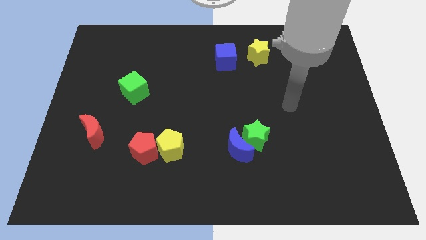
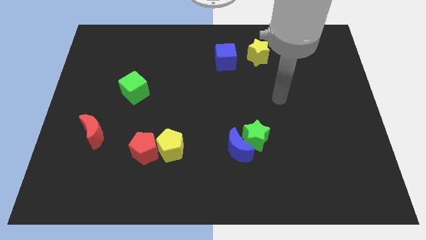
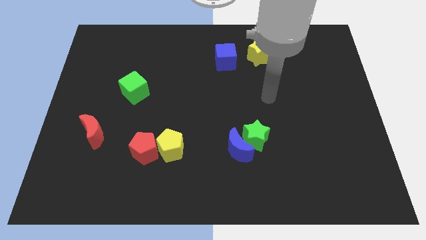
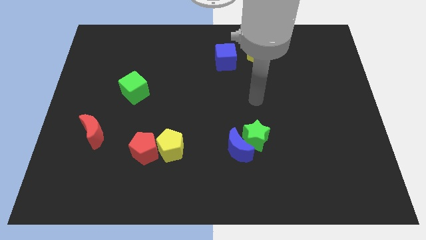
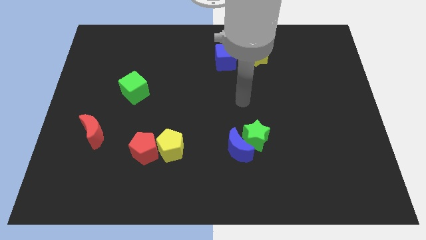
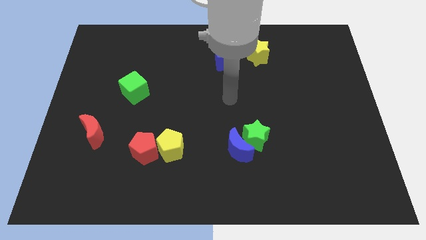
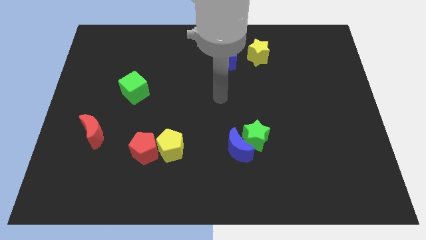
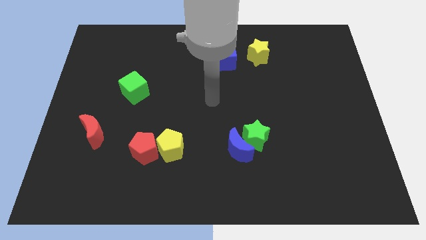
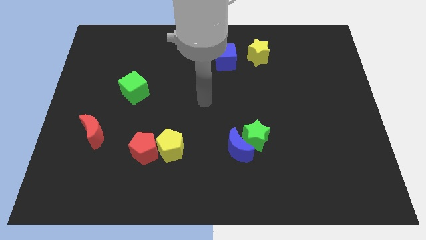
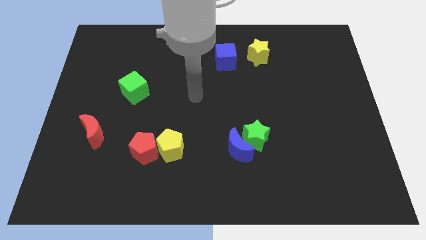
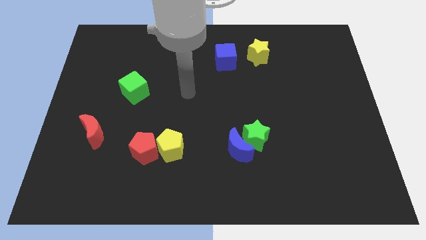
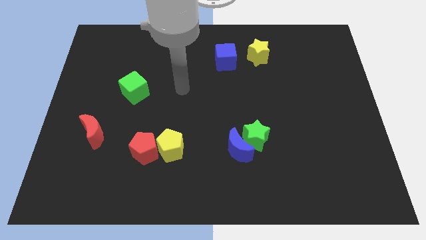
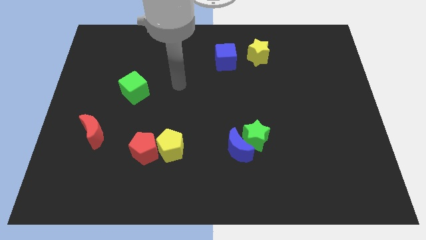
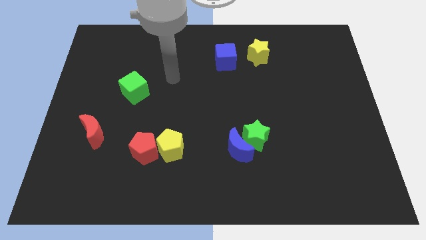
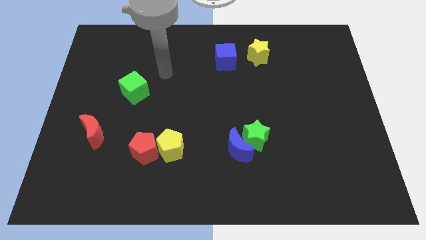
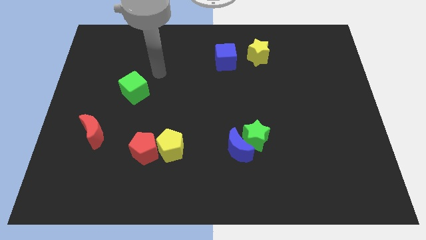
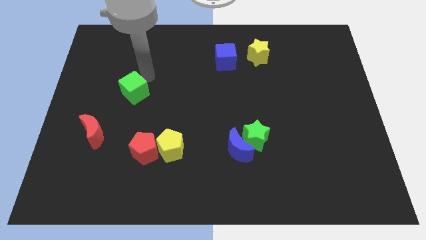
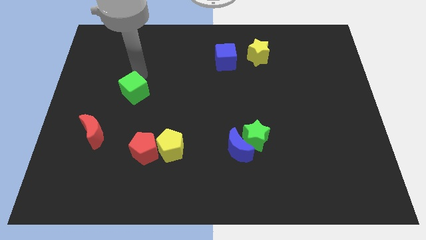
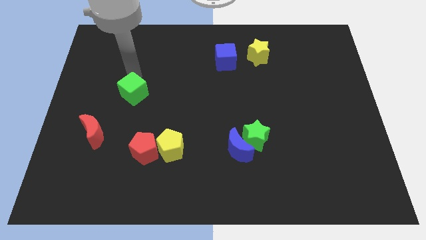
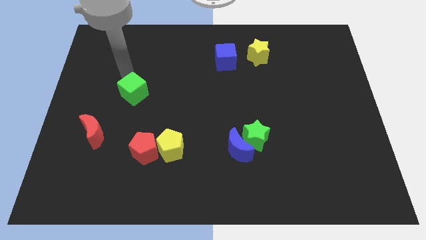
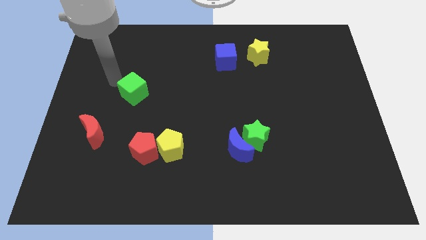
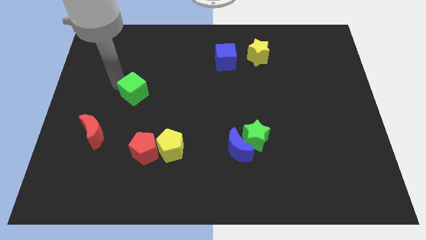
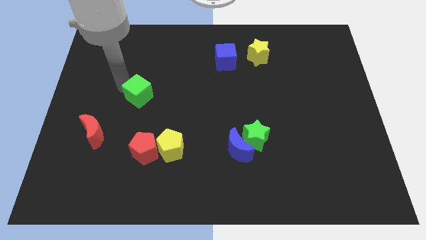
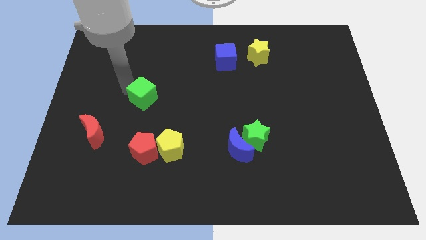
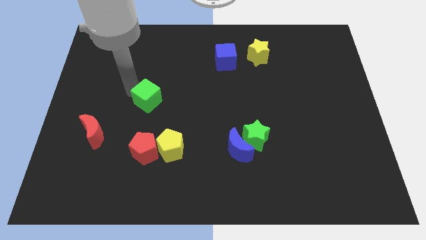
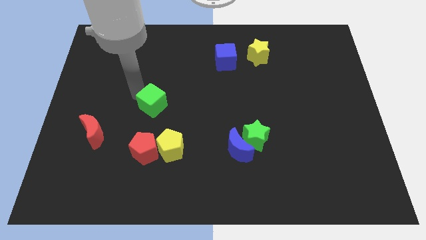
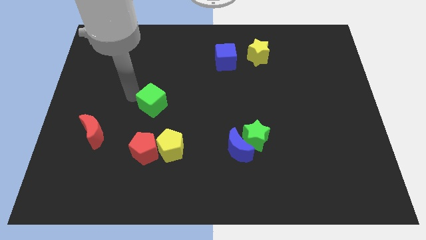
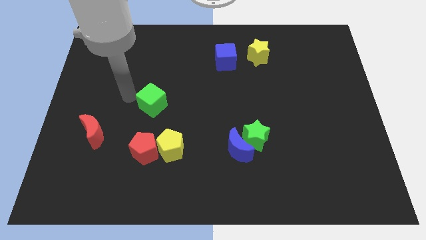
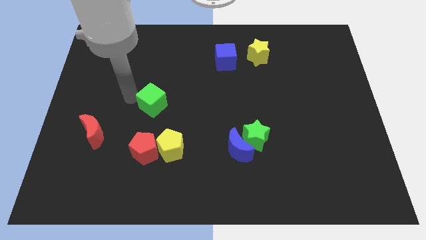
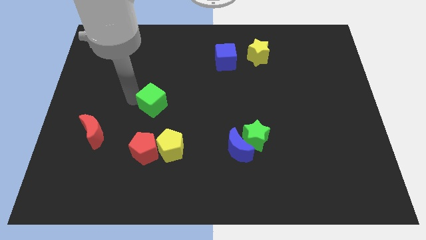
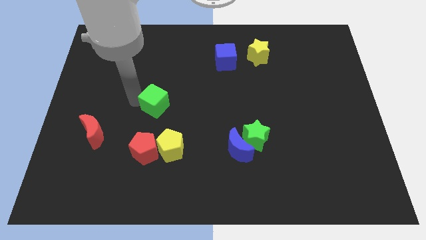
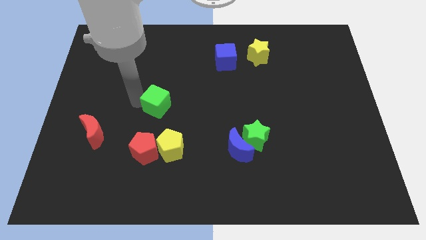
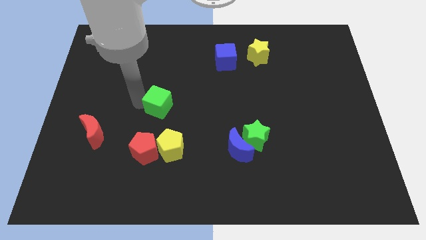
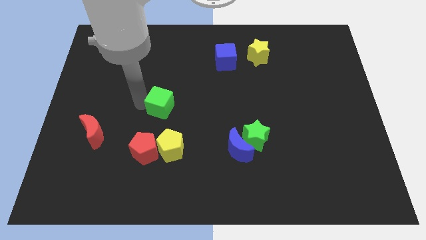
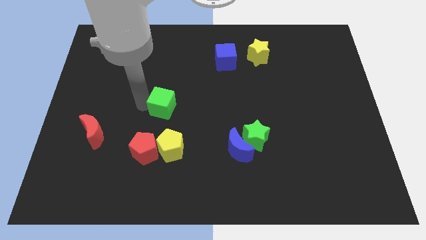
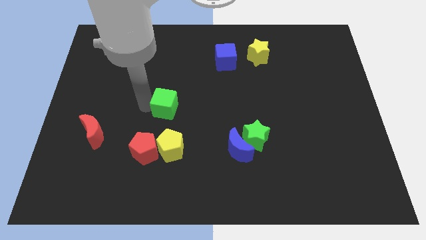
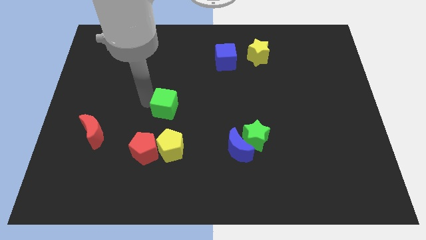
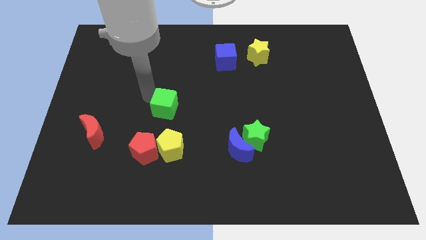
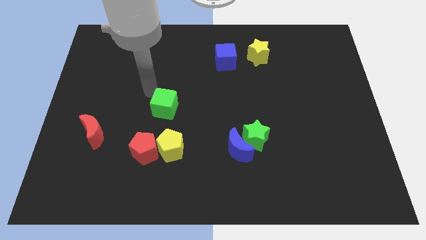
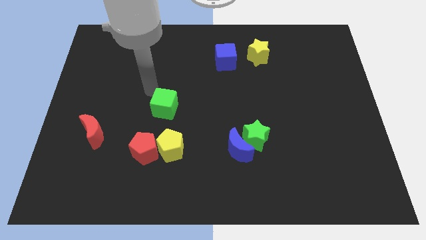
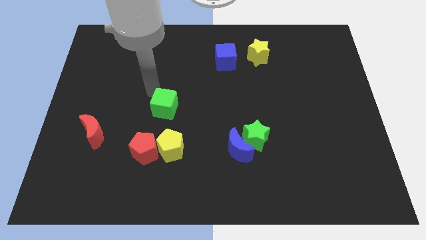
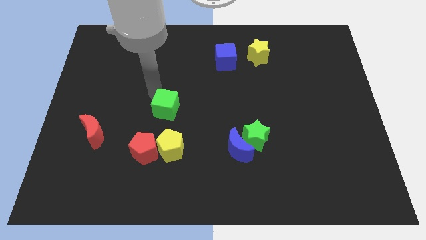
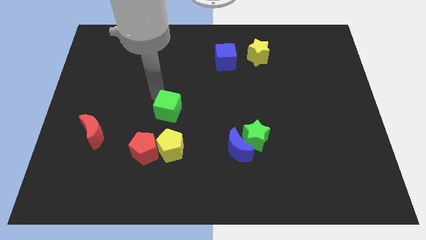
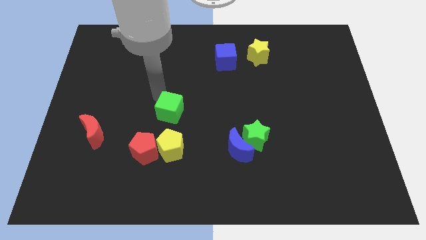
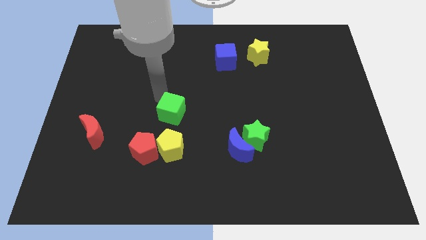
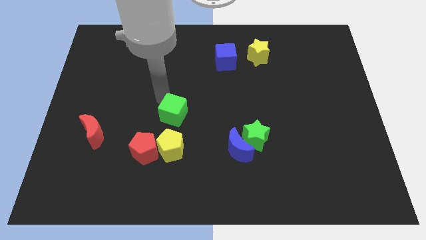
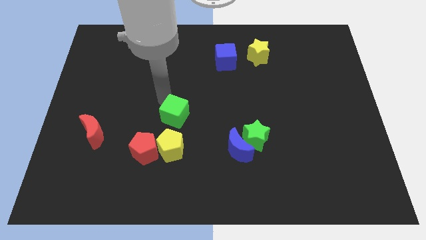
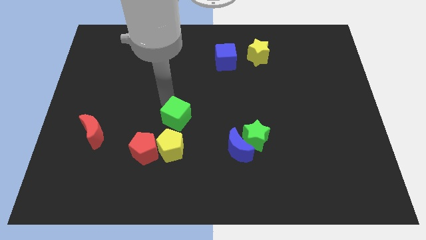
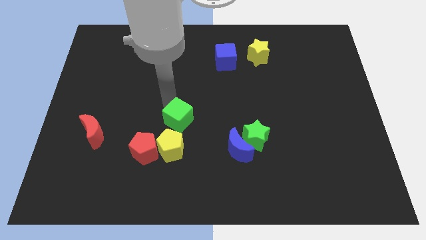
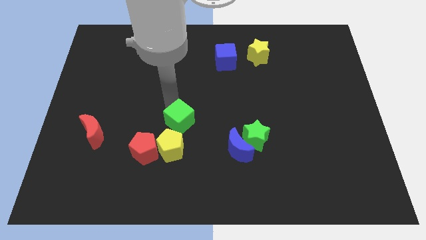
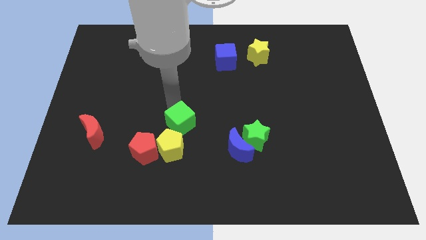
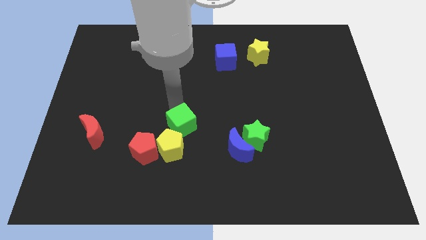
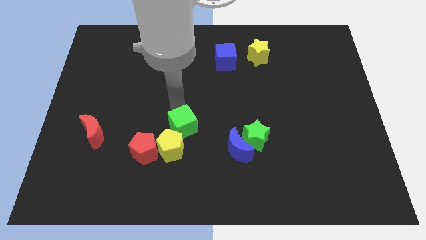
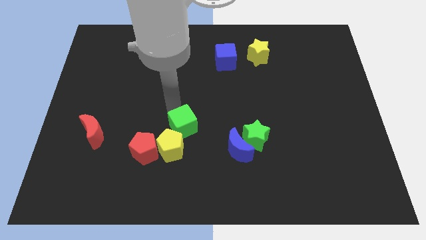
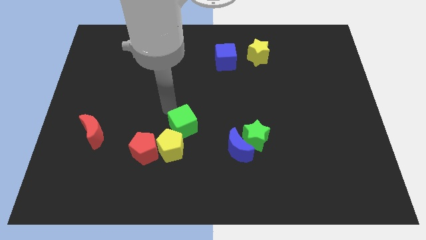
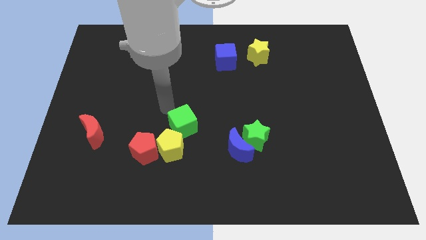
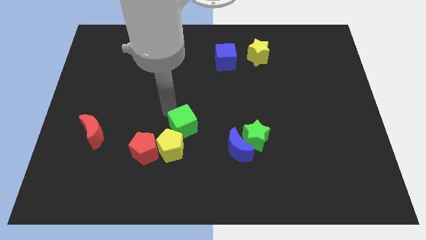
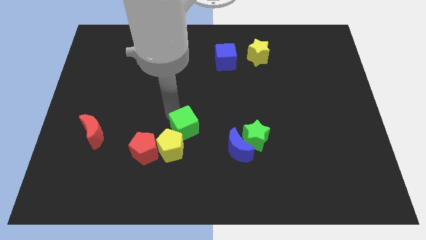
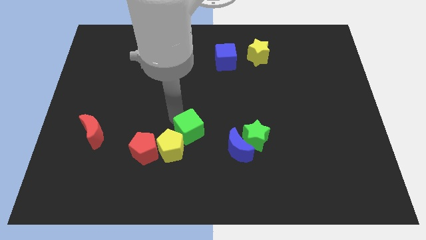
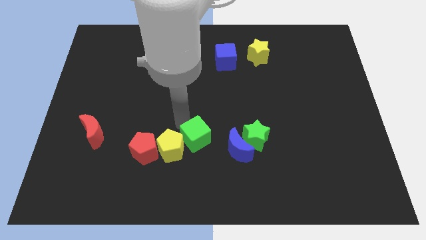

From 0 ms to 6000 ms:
move the green cube down and right diagonally

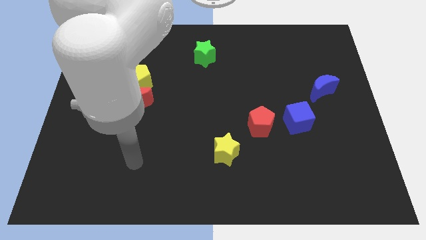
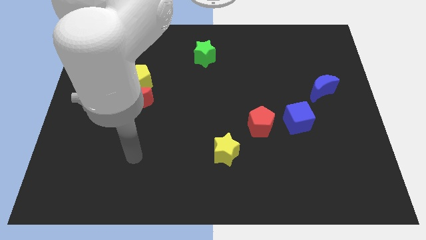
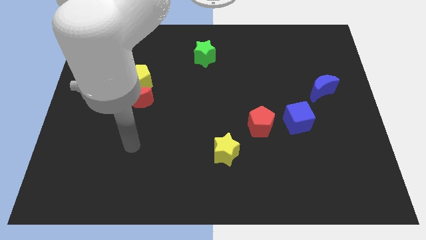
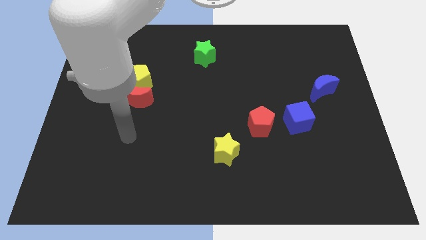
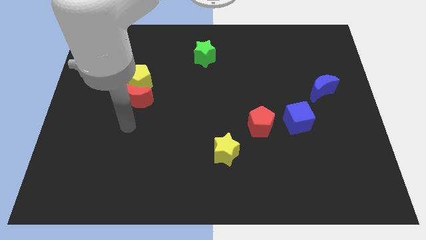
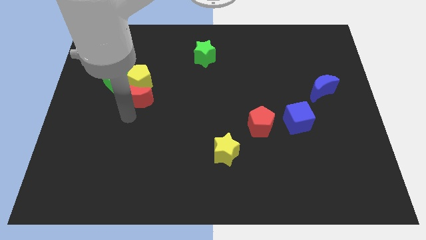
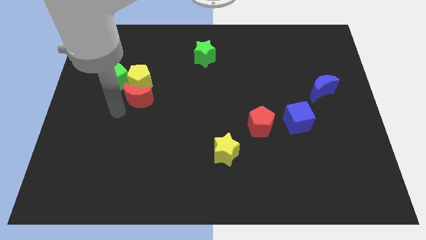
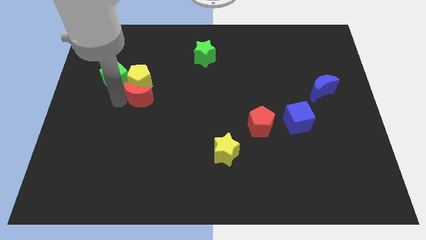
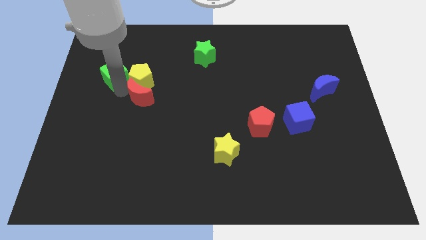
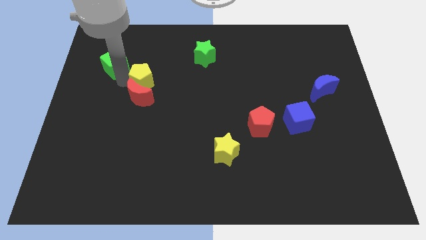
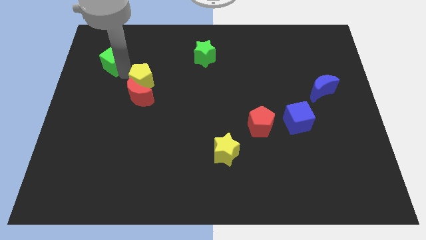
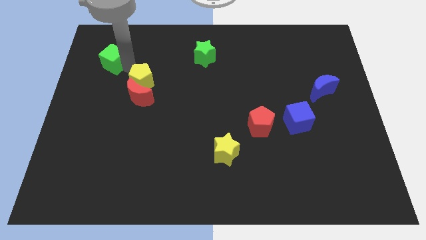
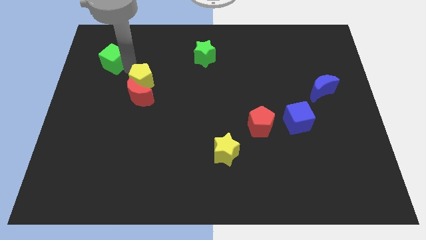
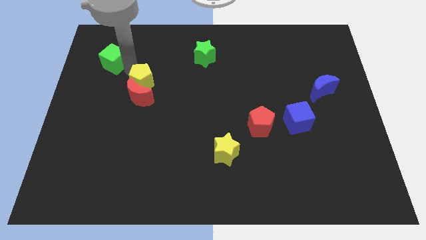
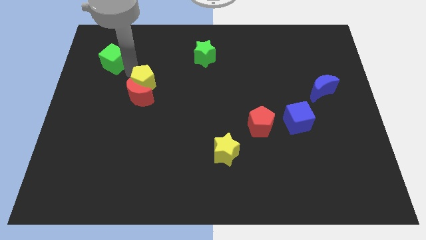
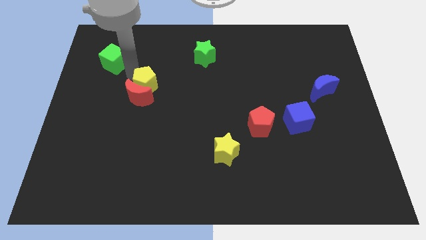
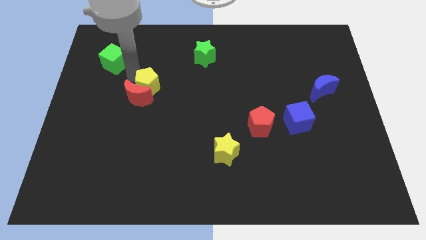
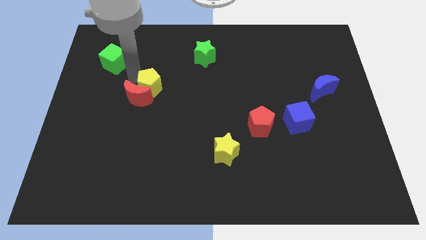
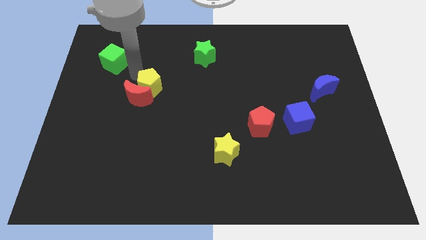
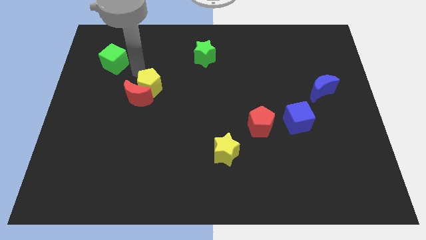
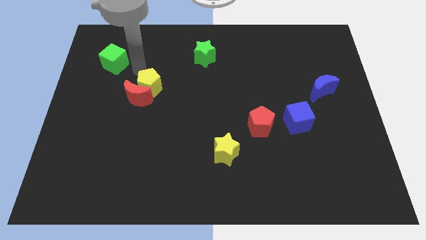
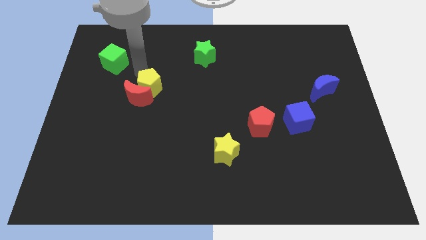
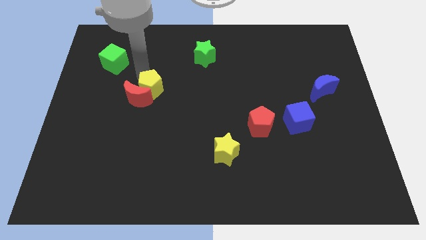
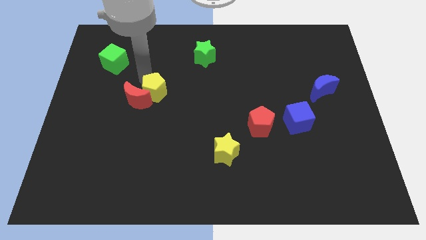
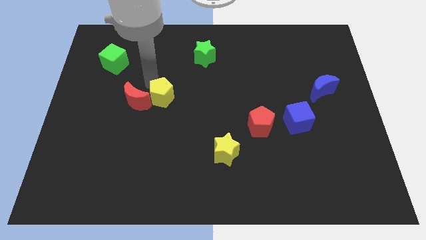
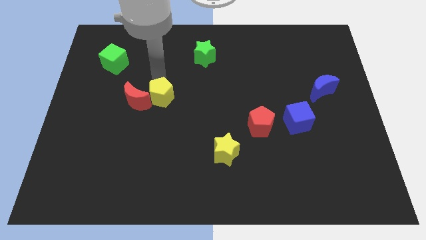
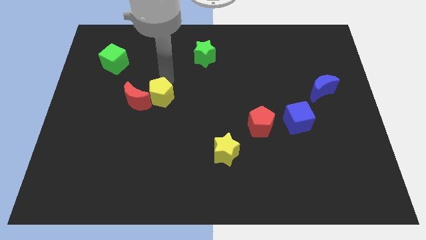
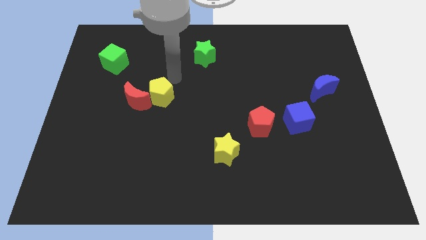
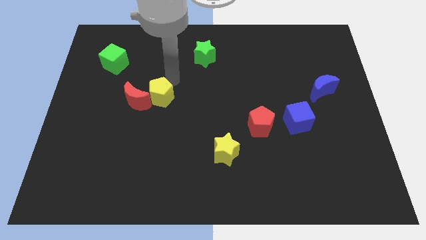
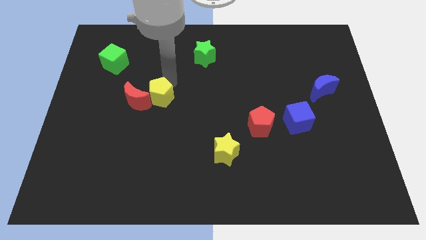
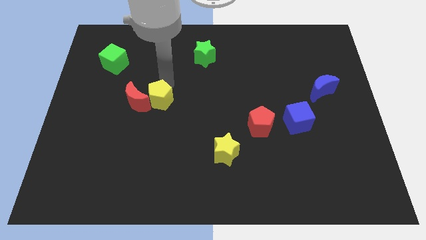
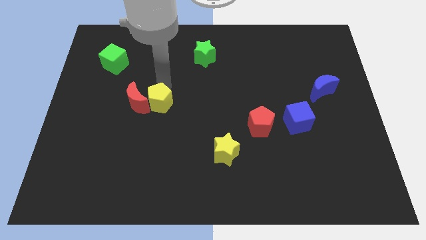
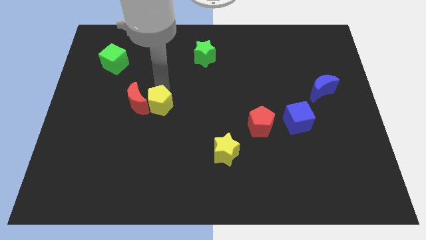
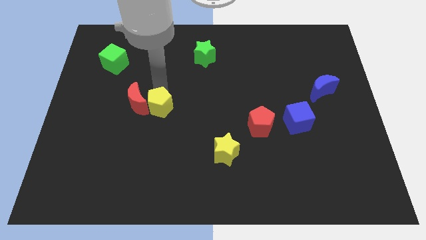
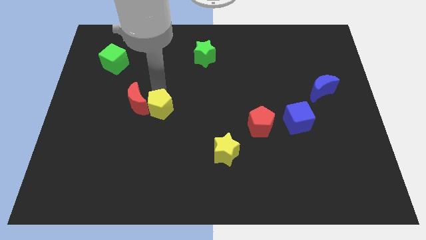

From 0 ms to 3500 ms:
slide the yellow pentagon a little down
